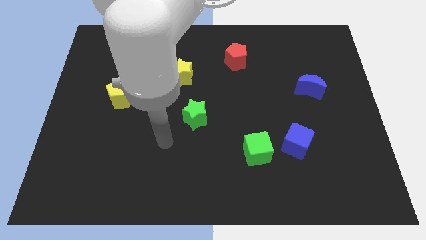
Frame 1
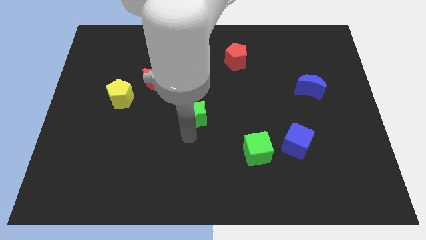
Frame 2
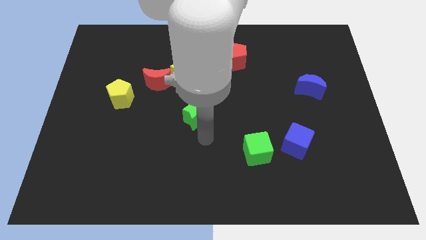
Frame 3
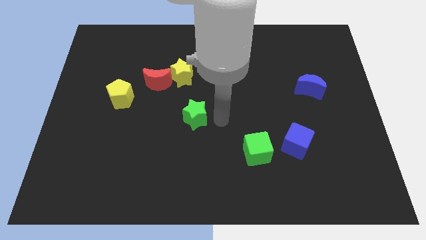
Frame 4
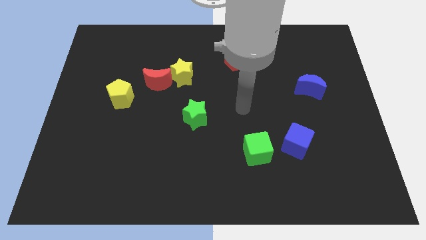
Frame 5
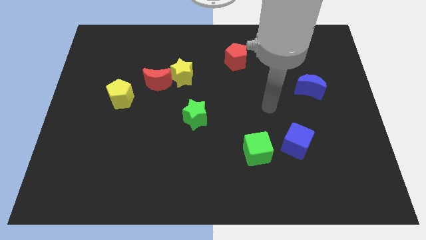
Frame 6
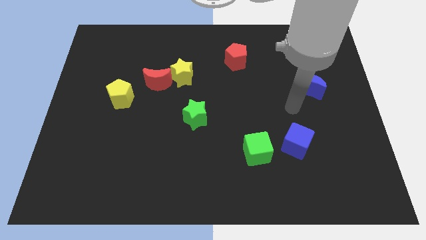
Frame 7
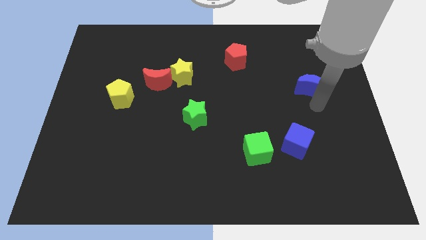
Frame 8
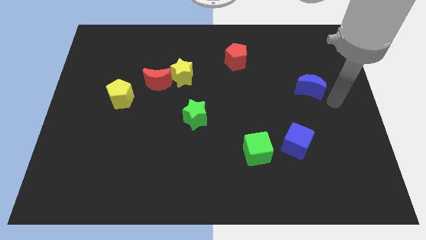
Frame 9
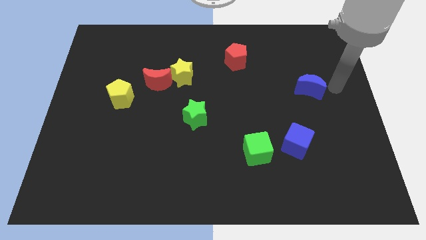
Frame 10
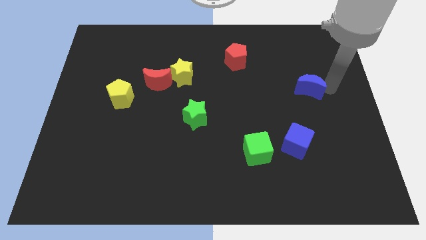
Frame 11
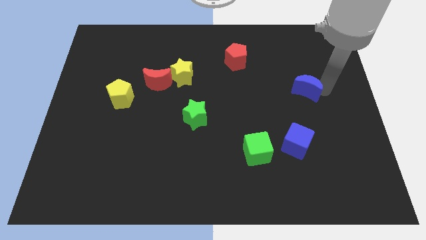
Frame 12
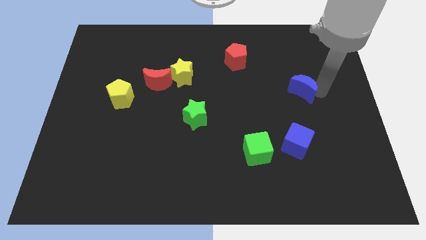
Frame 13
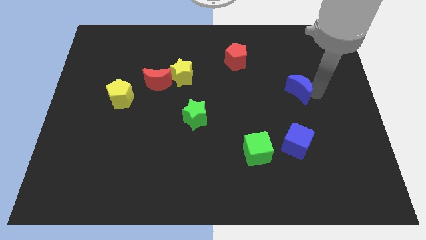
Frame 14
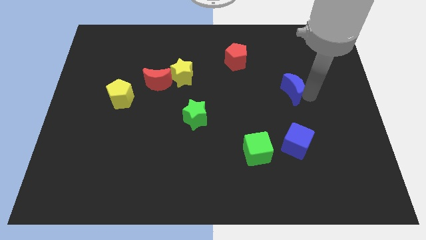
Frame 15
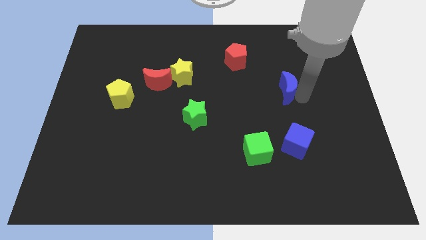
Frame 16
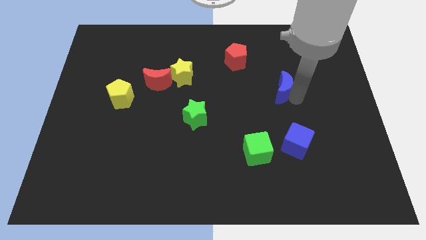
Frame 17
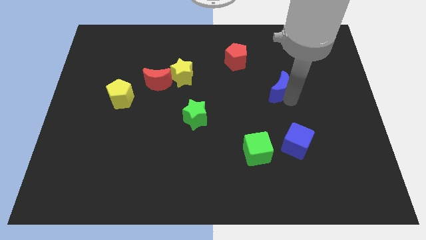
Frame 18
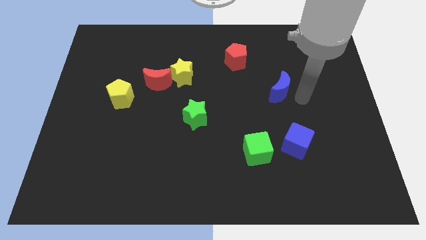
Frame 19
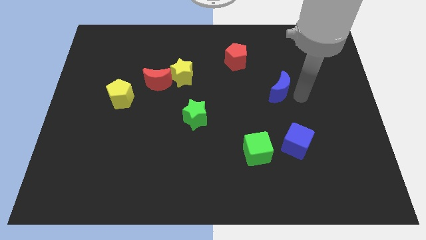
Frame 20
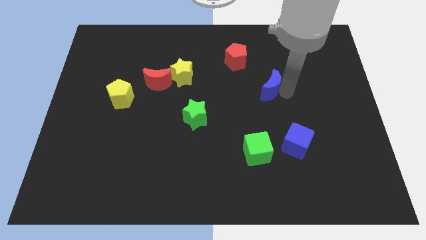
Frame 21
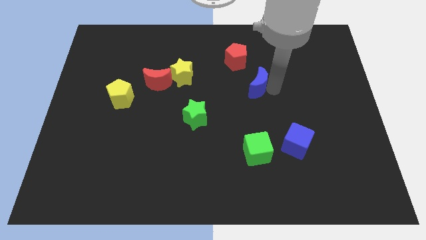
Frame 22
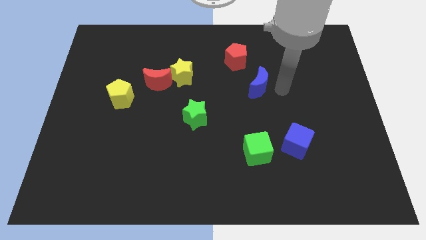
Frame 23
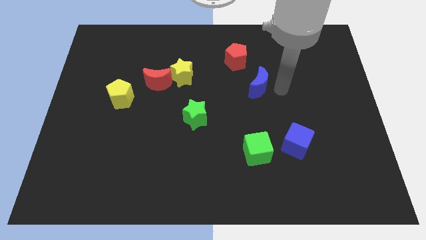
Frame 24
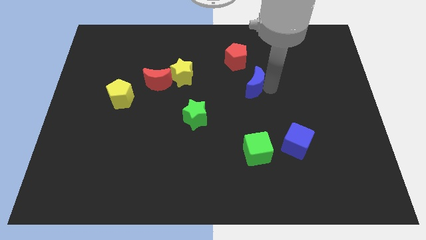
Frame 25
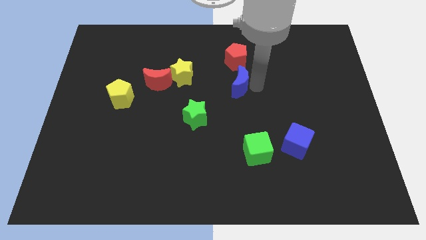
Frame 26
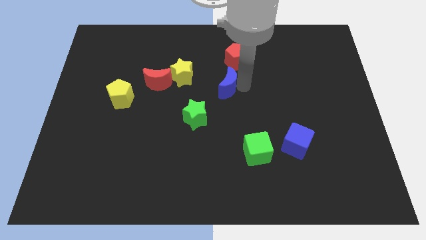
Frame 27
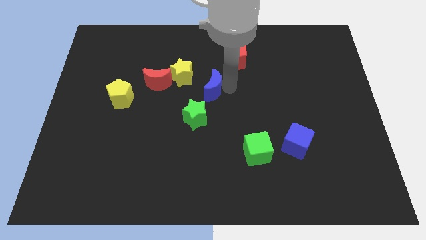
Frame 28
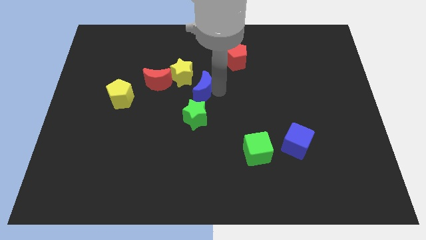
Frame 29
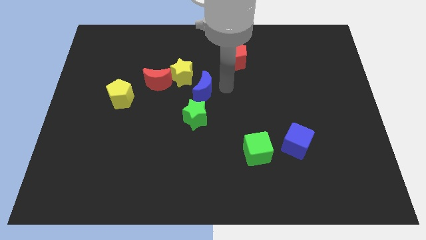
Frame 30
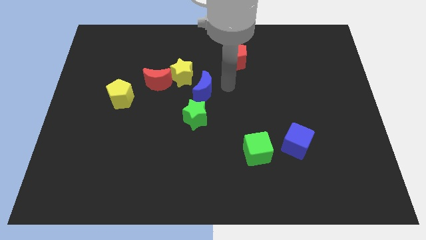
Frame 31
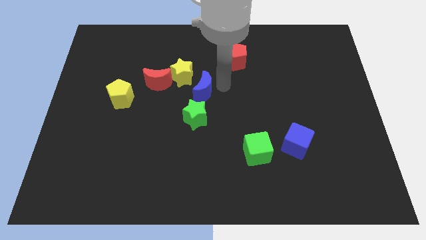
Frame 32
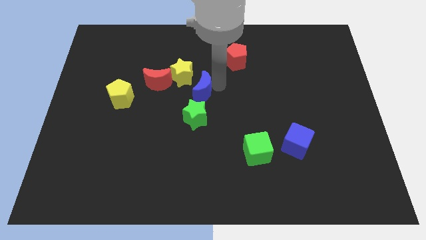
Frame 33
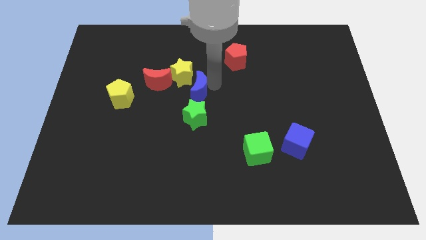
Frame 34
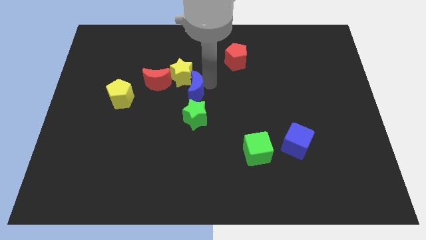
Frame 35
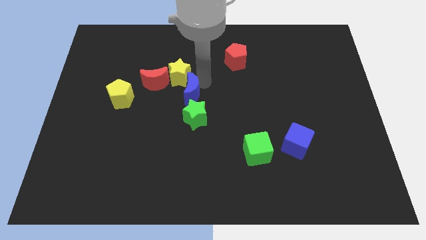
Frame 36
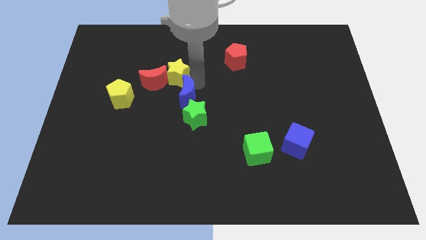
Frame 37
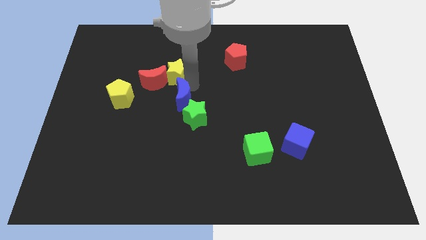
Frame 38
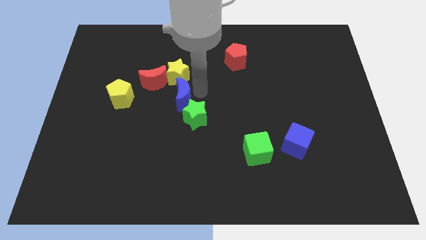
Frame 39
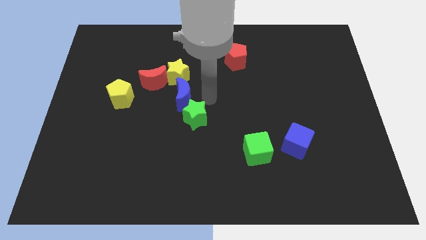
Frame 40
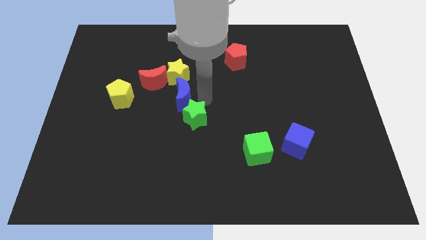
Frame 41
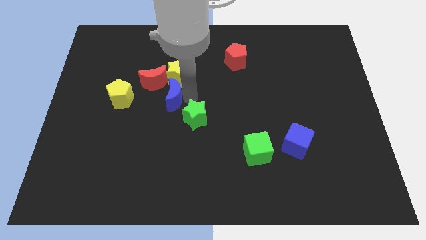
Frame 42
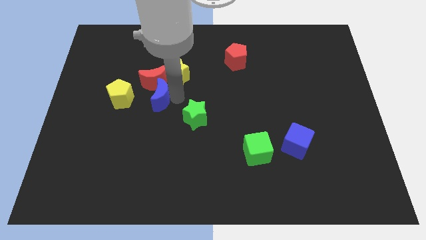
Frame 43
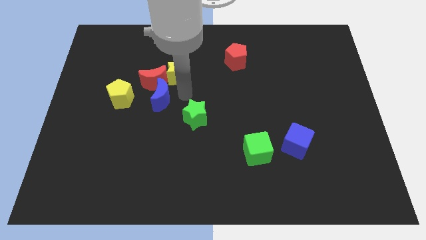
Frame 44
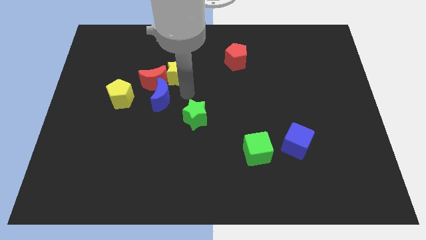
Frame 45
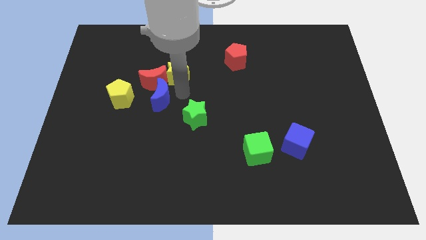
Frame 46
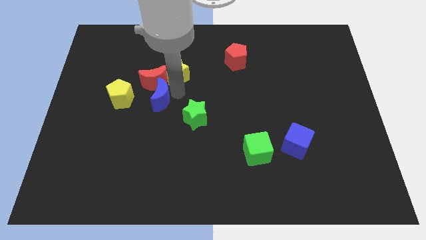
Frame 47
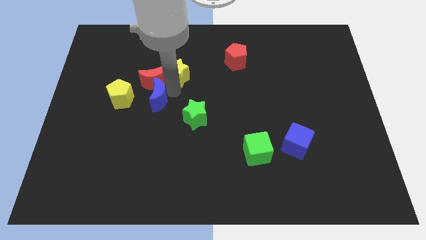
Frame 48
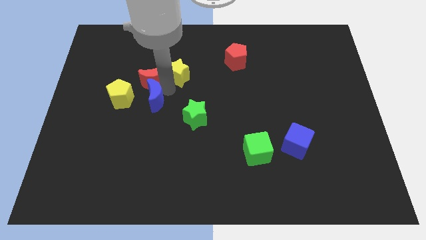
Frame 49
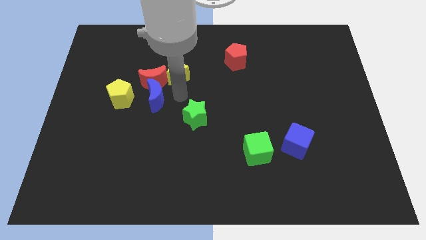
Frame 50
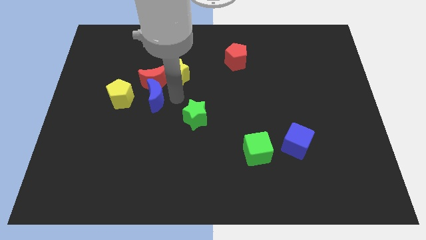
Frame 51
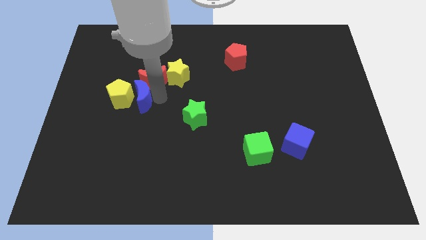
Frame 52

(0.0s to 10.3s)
put the blue moon close to the yellow pentagon

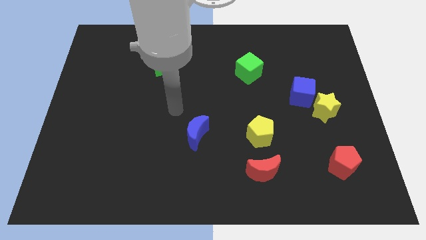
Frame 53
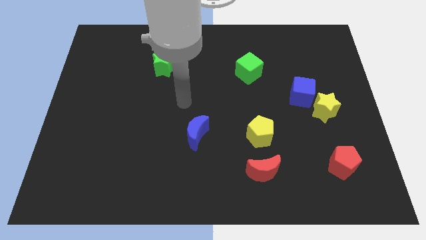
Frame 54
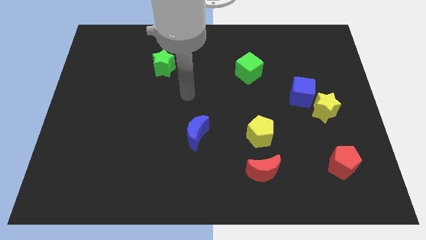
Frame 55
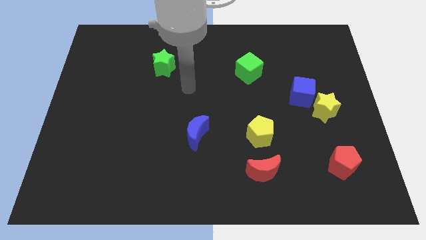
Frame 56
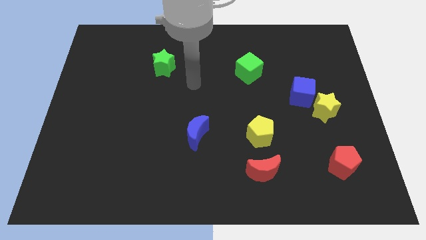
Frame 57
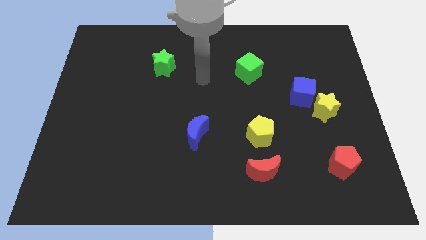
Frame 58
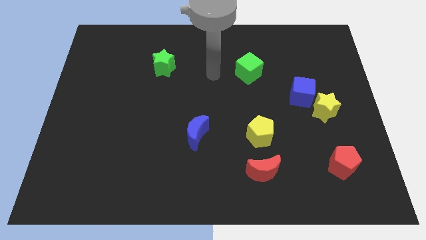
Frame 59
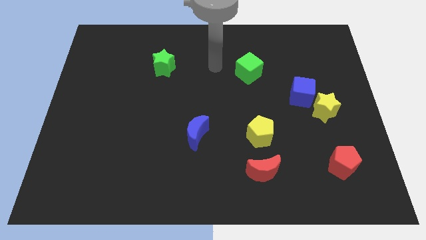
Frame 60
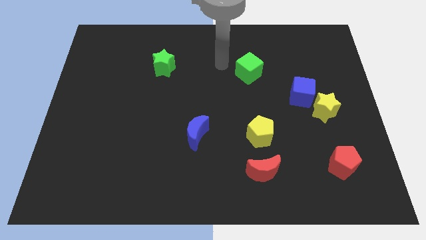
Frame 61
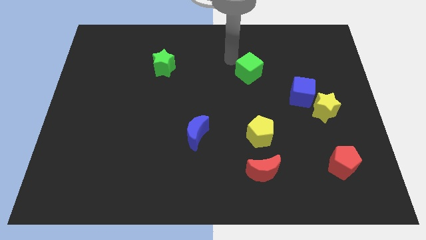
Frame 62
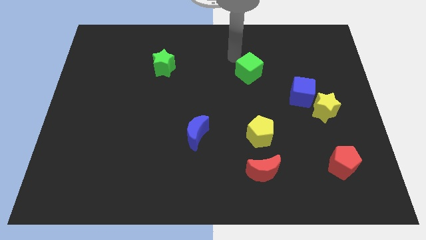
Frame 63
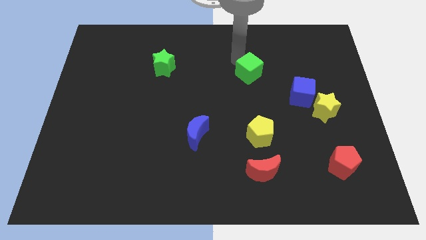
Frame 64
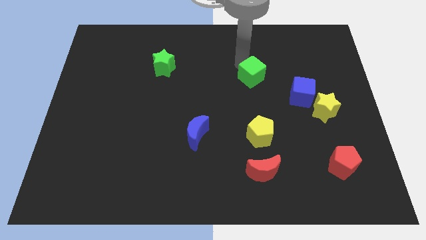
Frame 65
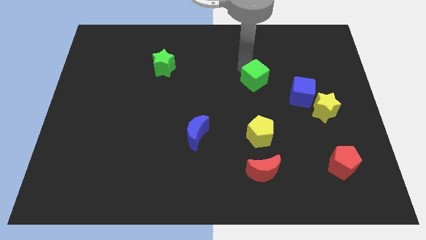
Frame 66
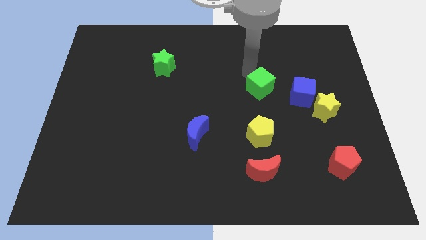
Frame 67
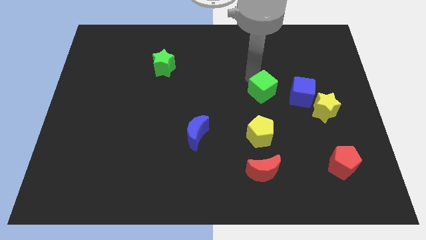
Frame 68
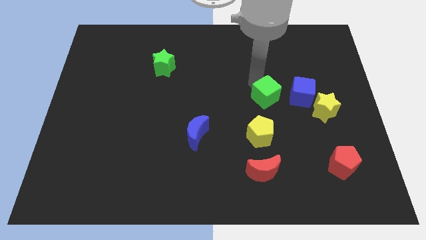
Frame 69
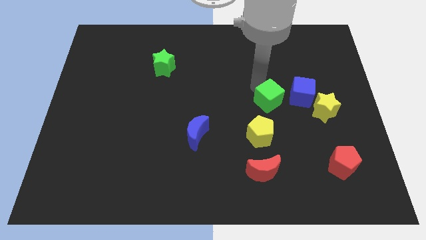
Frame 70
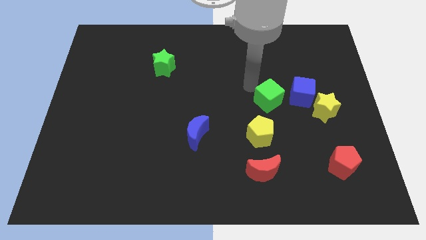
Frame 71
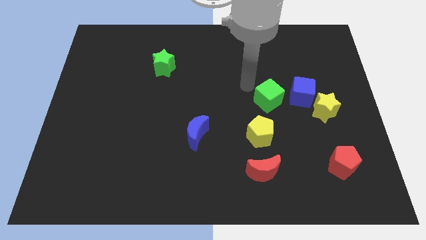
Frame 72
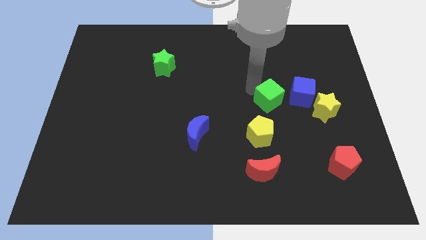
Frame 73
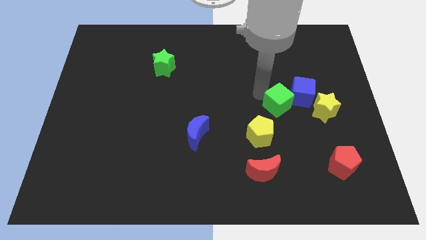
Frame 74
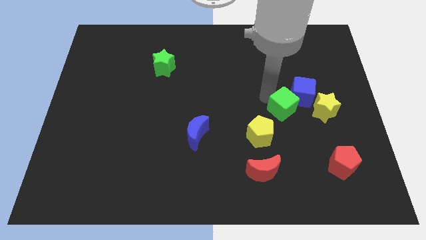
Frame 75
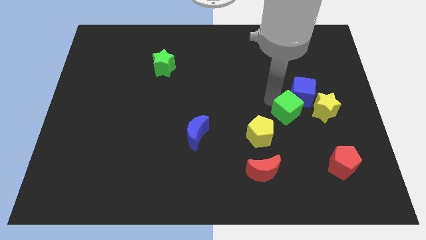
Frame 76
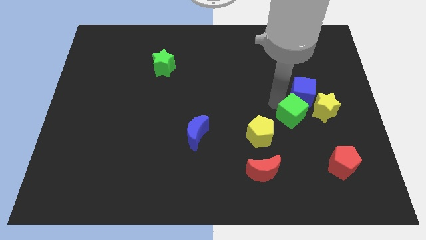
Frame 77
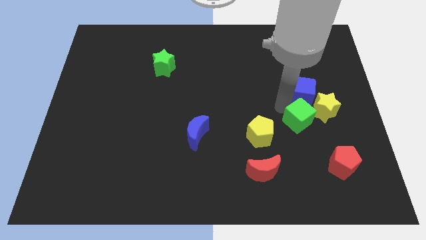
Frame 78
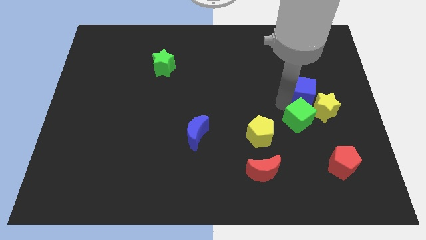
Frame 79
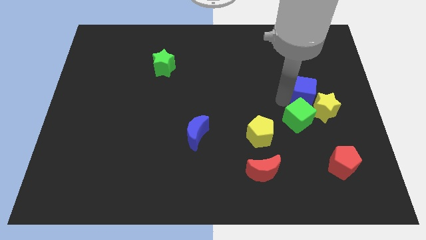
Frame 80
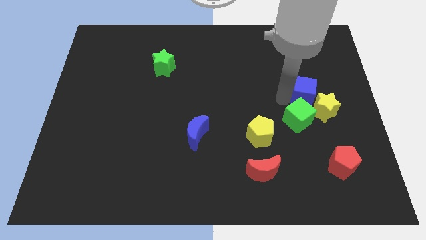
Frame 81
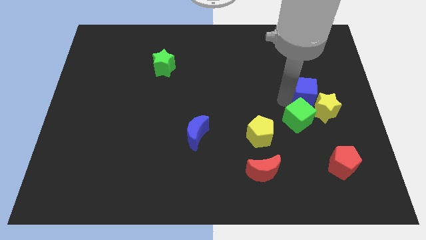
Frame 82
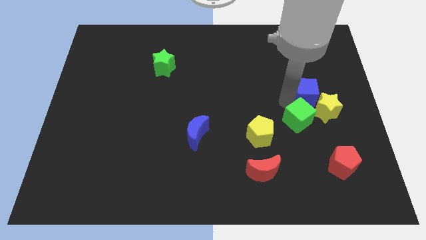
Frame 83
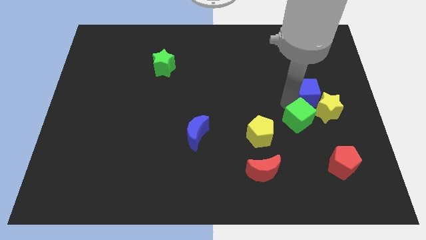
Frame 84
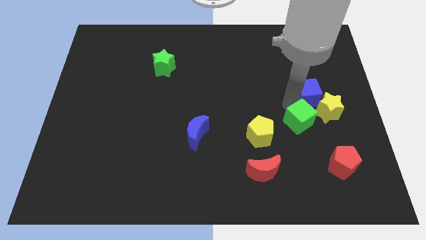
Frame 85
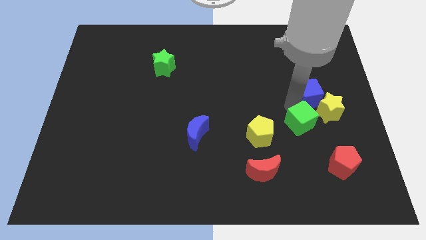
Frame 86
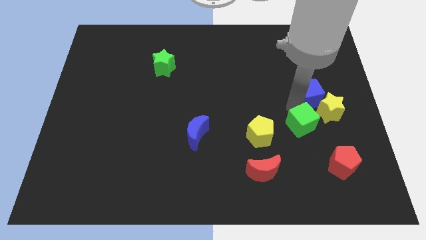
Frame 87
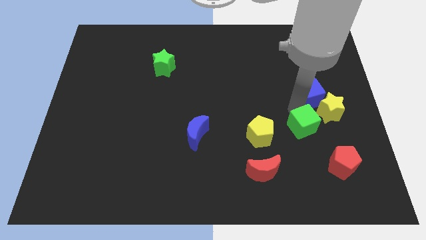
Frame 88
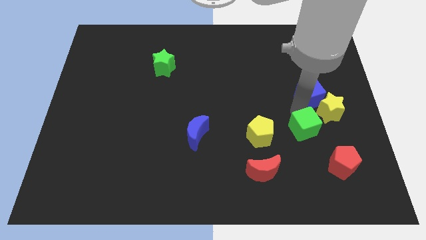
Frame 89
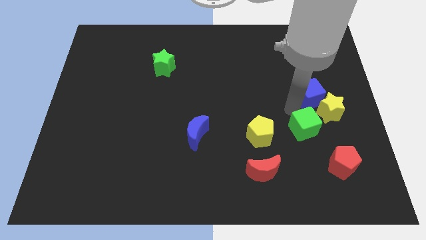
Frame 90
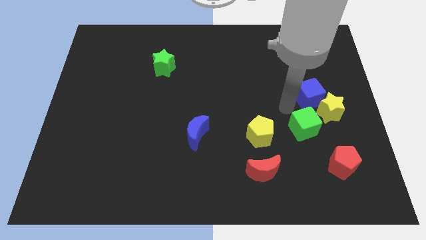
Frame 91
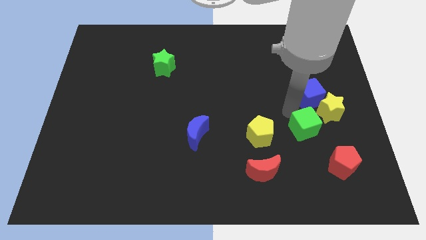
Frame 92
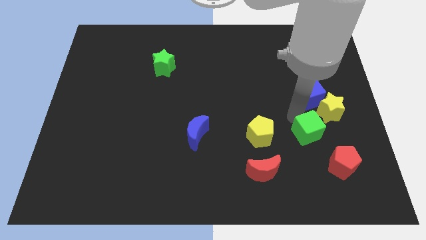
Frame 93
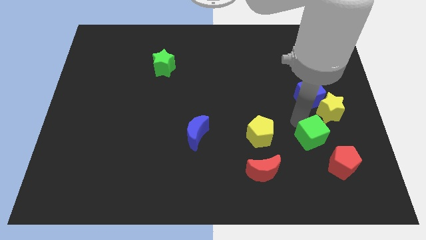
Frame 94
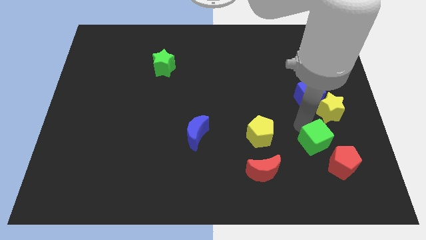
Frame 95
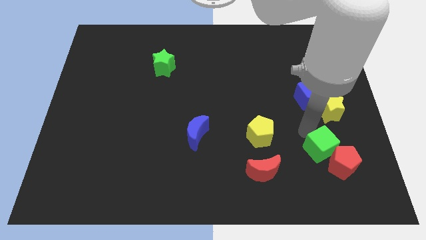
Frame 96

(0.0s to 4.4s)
put the green cube to the red pentagon
